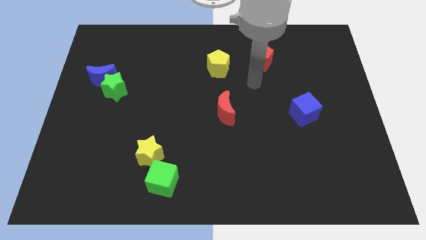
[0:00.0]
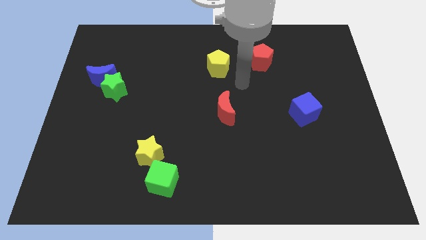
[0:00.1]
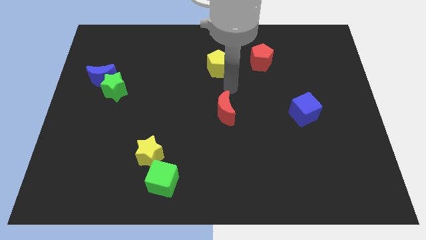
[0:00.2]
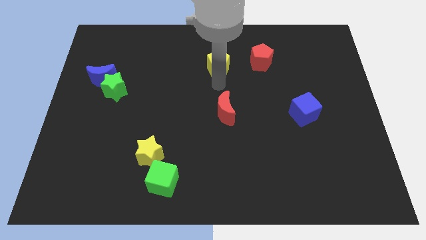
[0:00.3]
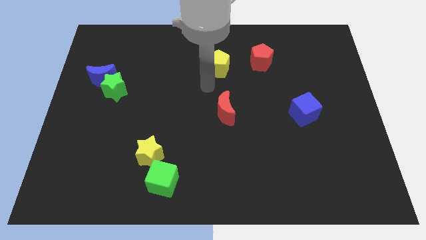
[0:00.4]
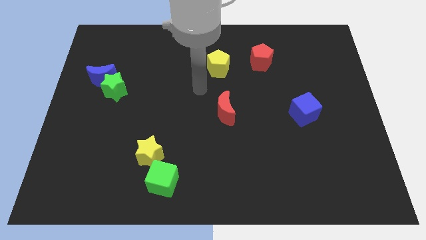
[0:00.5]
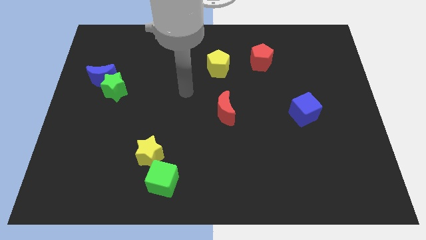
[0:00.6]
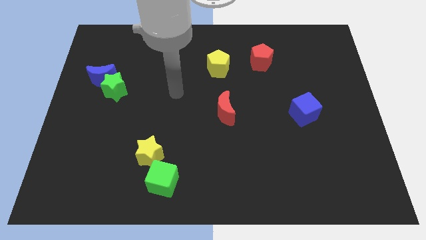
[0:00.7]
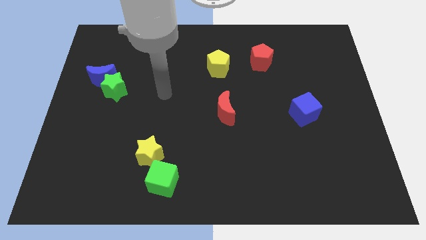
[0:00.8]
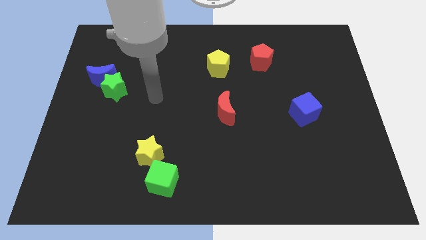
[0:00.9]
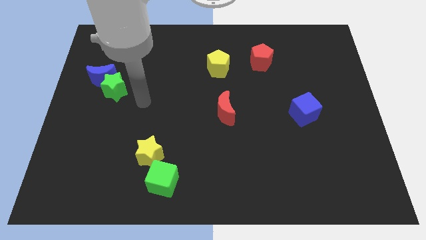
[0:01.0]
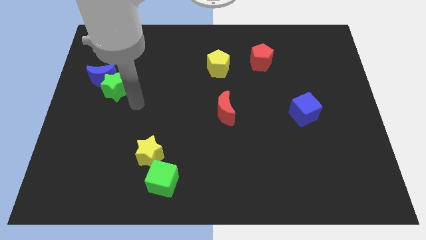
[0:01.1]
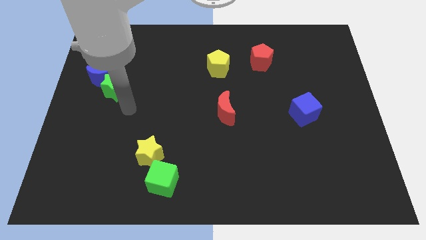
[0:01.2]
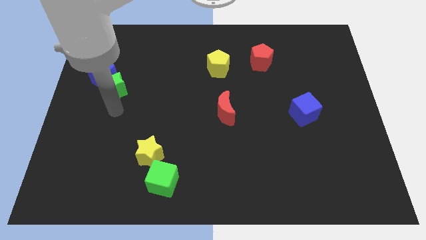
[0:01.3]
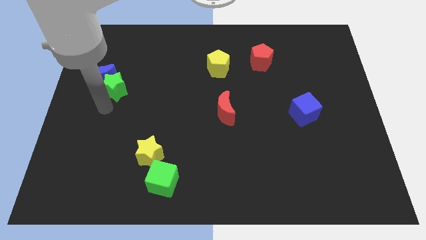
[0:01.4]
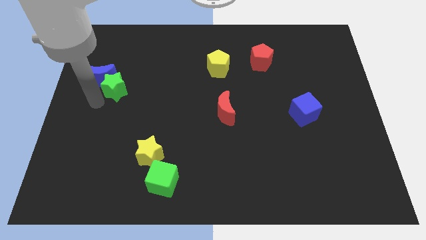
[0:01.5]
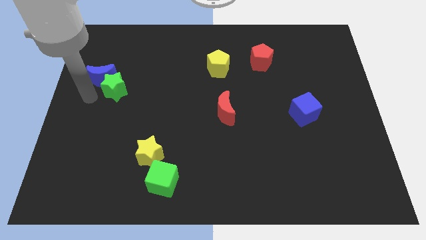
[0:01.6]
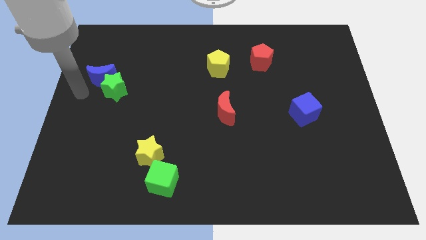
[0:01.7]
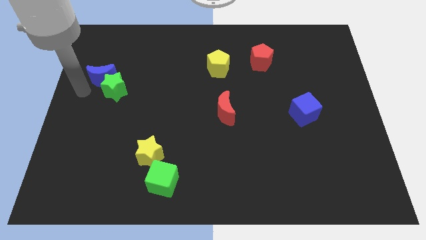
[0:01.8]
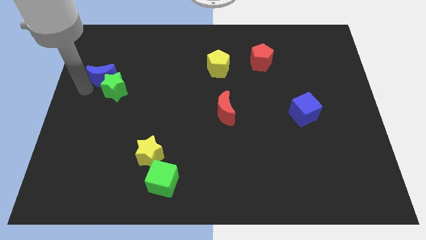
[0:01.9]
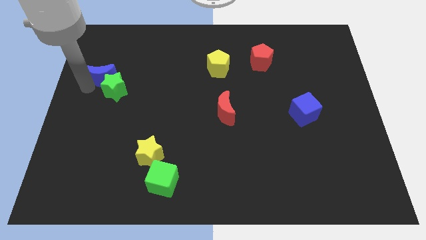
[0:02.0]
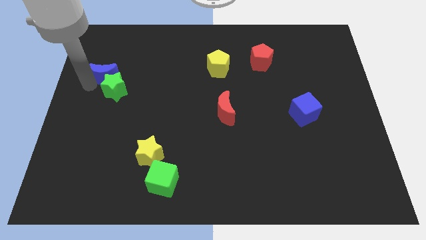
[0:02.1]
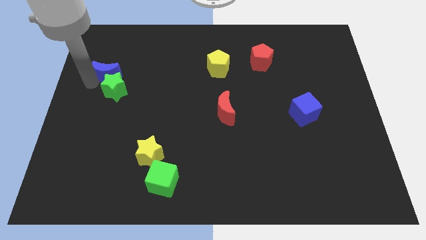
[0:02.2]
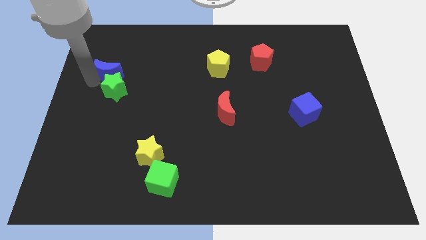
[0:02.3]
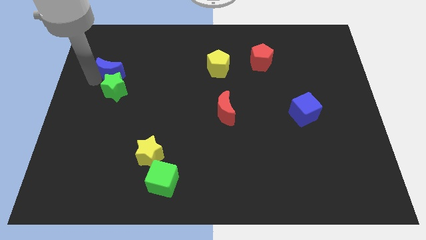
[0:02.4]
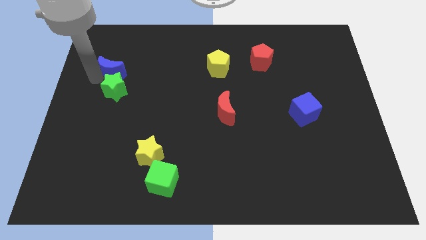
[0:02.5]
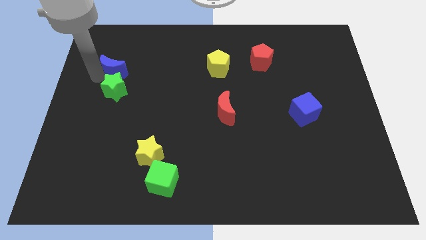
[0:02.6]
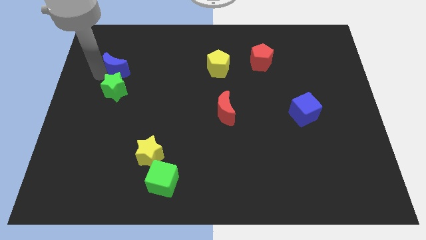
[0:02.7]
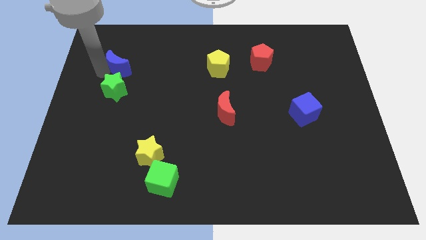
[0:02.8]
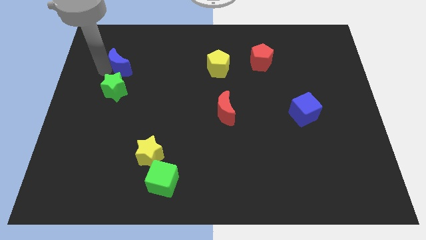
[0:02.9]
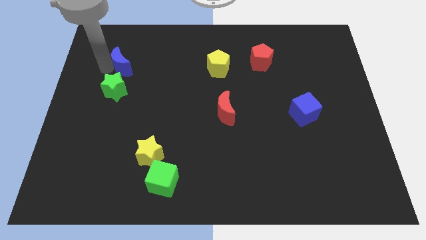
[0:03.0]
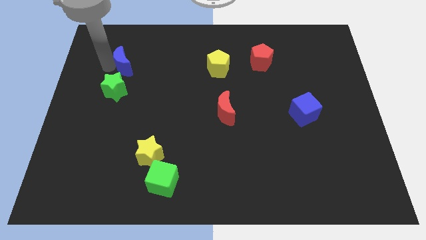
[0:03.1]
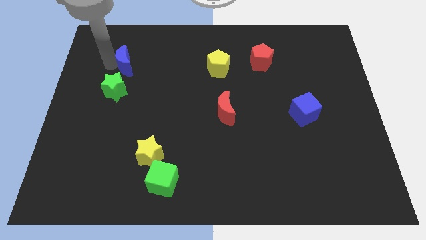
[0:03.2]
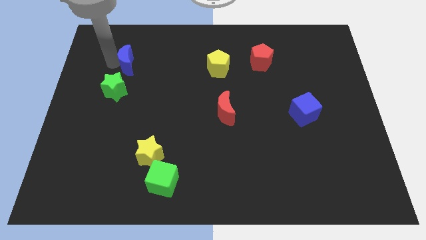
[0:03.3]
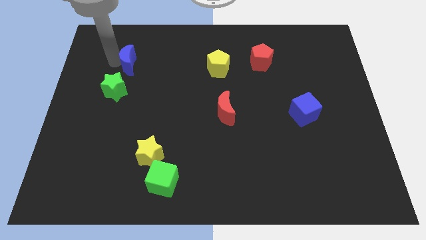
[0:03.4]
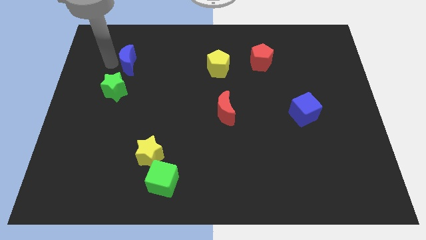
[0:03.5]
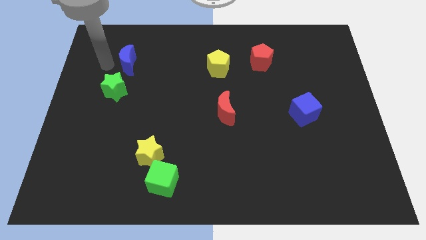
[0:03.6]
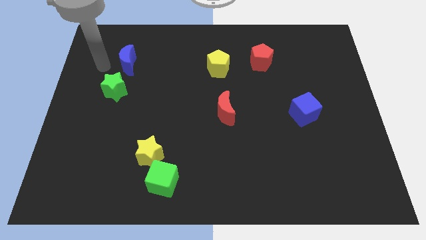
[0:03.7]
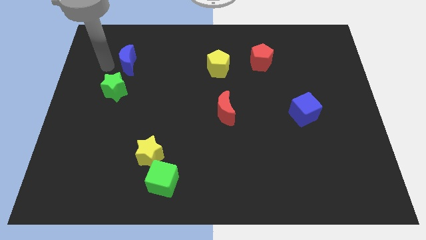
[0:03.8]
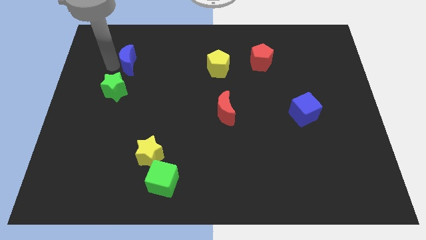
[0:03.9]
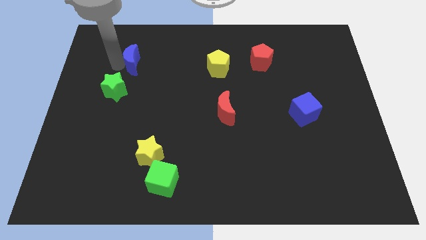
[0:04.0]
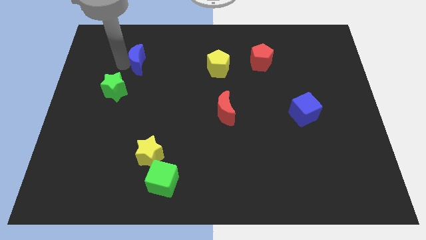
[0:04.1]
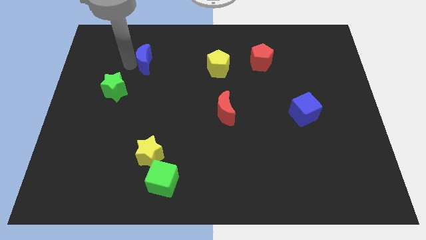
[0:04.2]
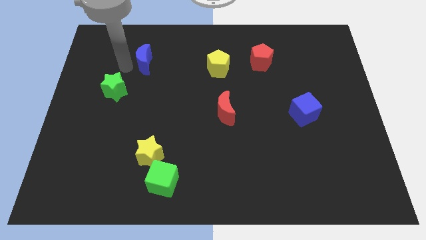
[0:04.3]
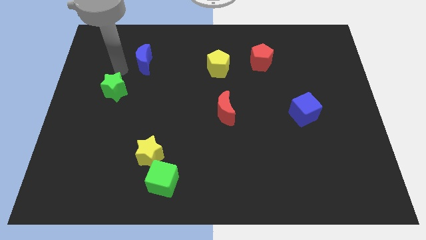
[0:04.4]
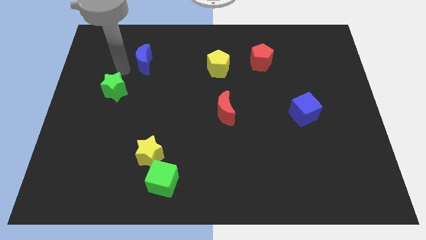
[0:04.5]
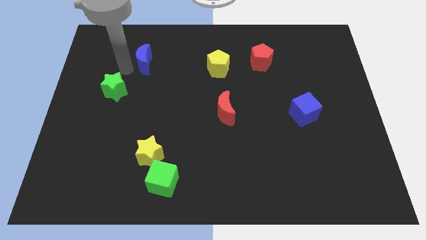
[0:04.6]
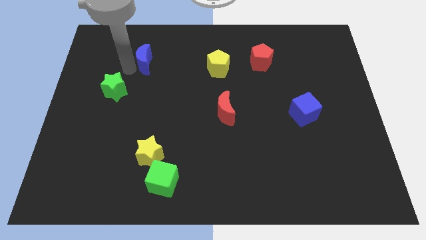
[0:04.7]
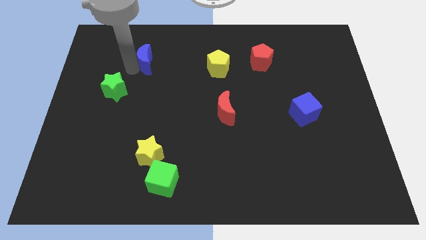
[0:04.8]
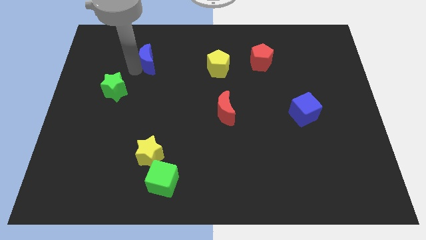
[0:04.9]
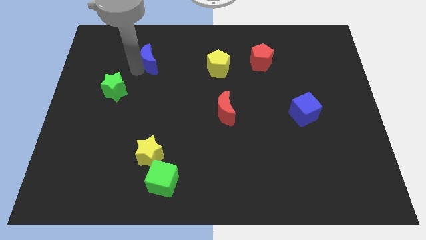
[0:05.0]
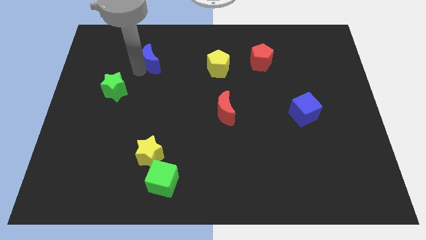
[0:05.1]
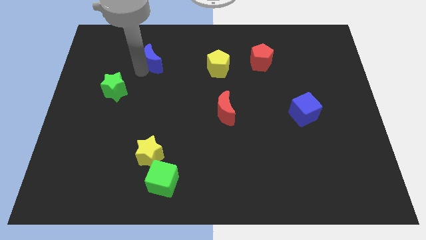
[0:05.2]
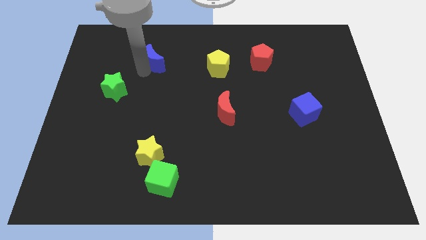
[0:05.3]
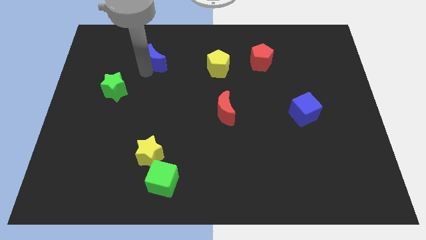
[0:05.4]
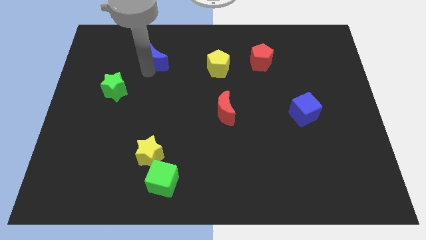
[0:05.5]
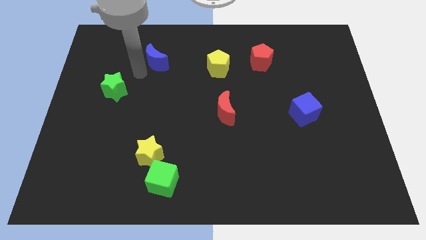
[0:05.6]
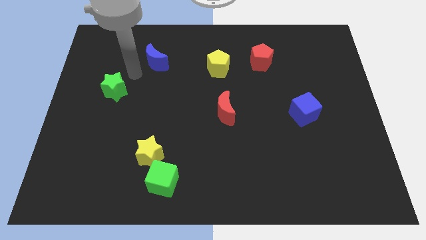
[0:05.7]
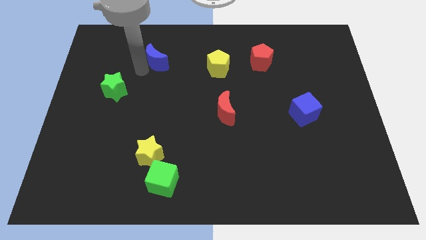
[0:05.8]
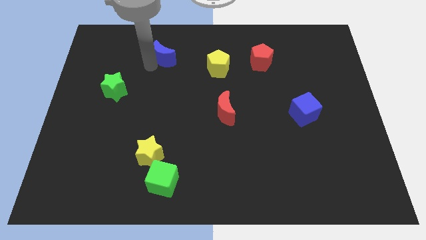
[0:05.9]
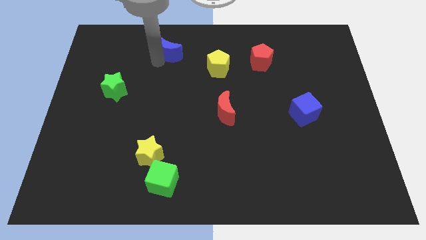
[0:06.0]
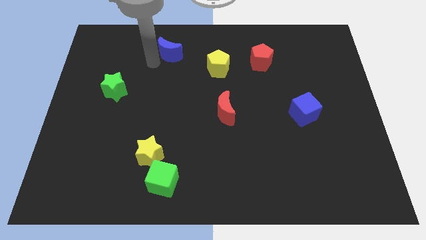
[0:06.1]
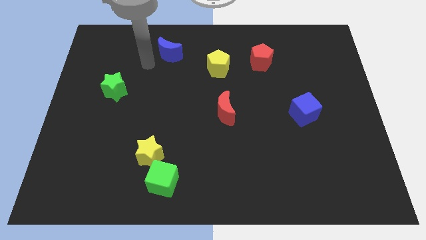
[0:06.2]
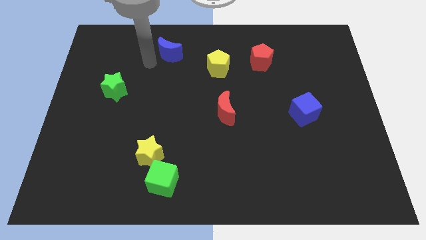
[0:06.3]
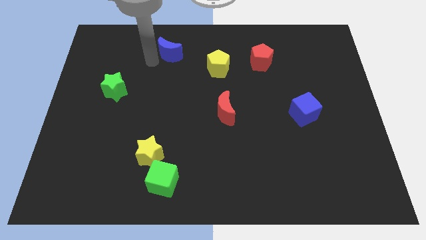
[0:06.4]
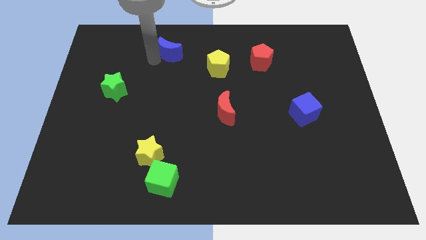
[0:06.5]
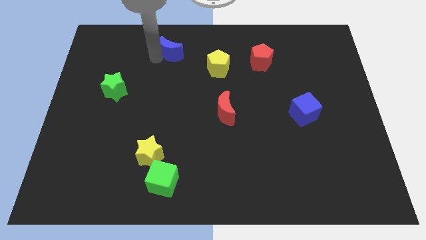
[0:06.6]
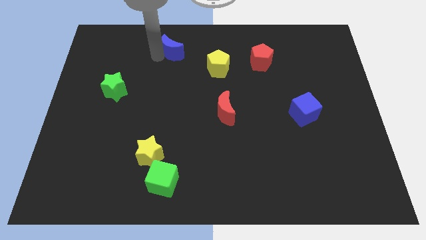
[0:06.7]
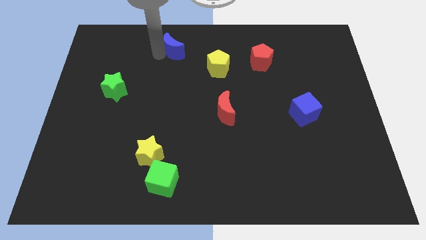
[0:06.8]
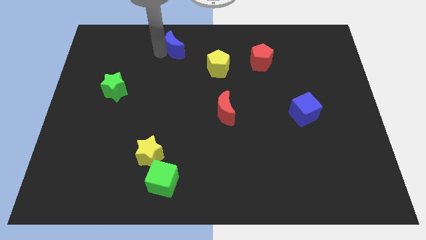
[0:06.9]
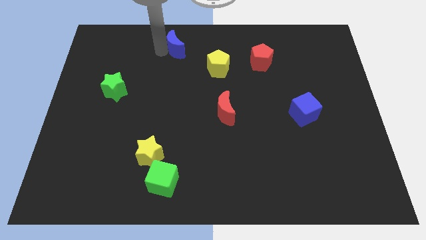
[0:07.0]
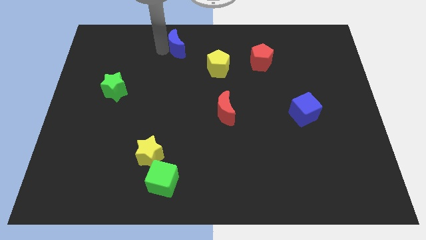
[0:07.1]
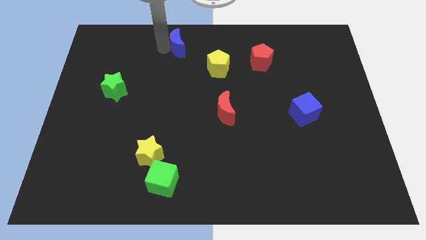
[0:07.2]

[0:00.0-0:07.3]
push the blue moon to the top side

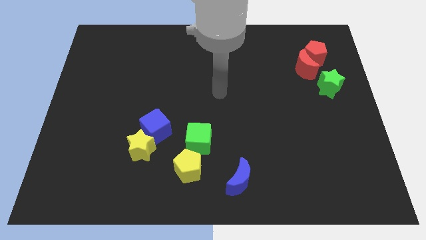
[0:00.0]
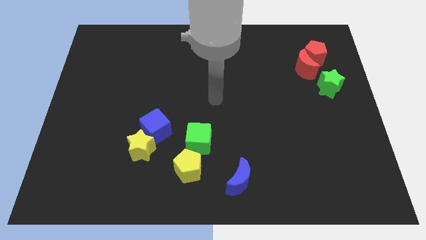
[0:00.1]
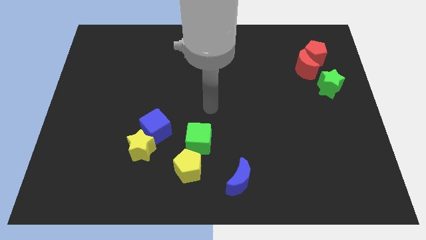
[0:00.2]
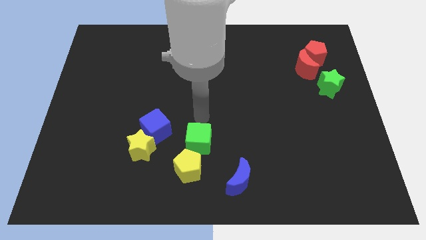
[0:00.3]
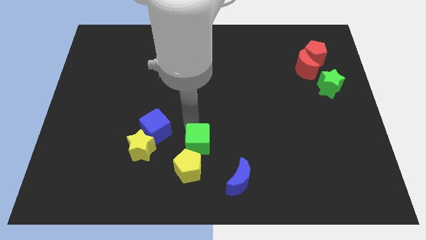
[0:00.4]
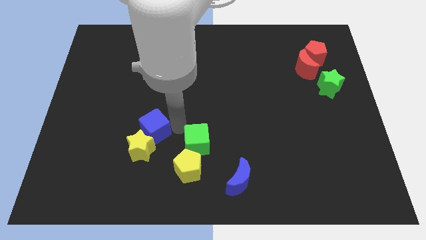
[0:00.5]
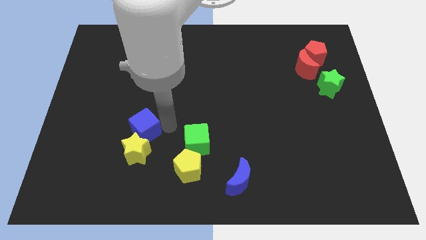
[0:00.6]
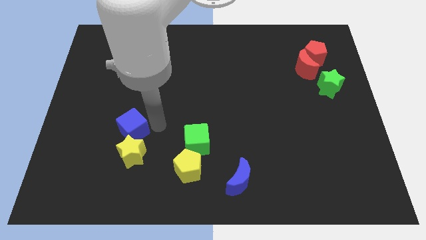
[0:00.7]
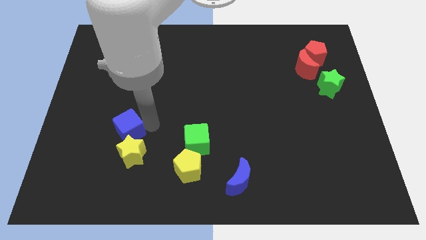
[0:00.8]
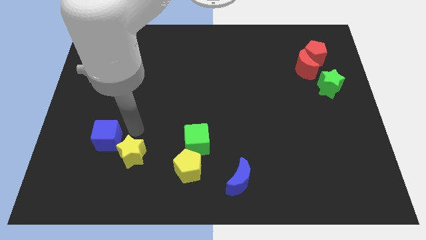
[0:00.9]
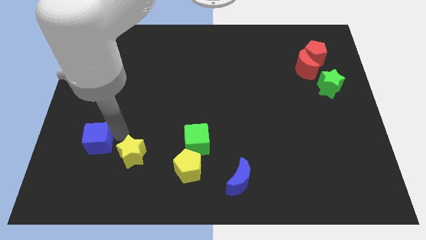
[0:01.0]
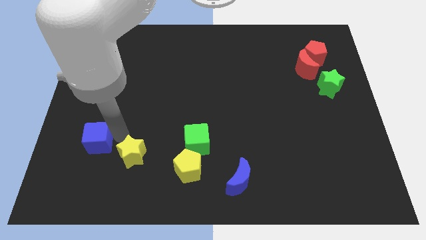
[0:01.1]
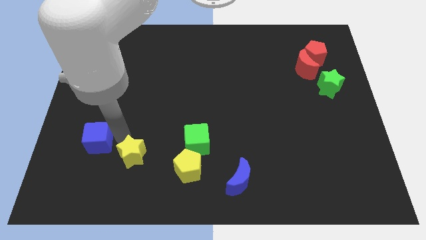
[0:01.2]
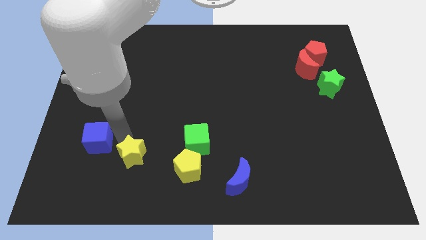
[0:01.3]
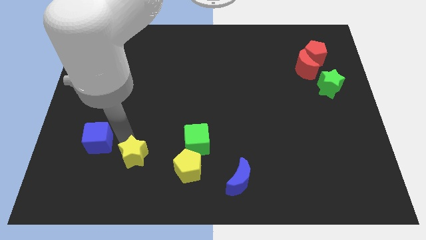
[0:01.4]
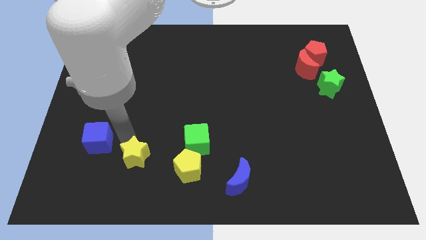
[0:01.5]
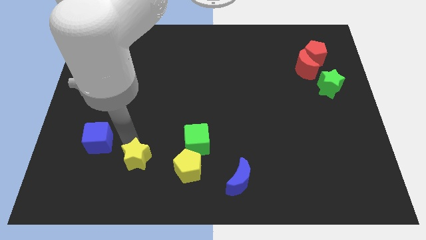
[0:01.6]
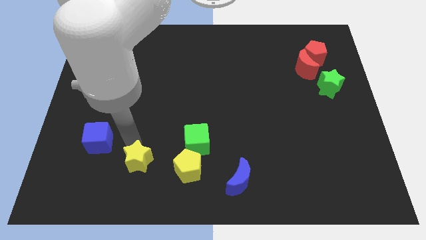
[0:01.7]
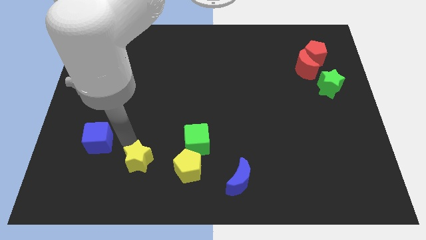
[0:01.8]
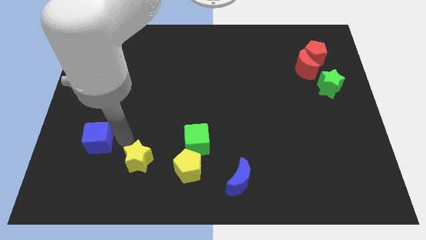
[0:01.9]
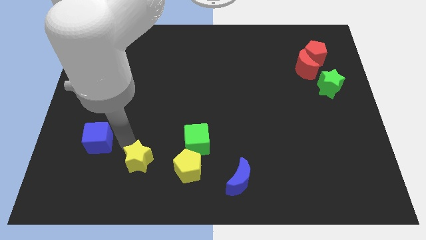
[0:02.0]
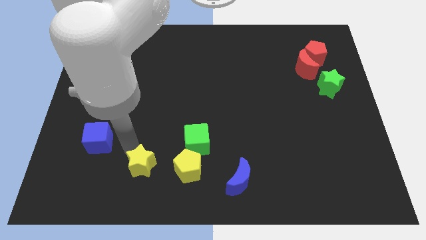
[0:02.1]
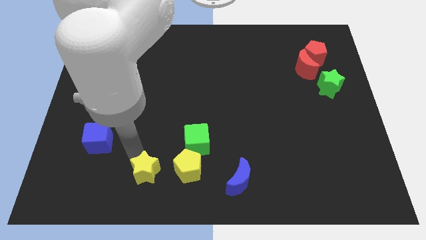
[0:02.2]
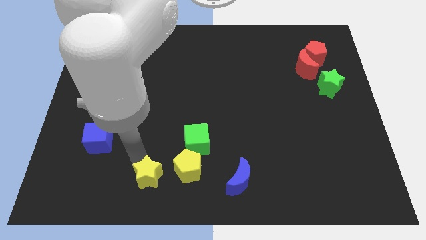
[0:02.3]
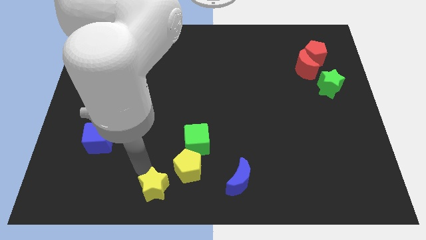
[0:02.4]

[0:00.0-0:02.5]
move the yellow star to the bottom side
